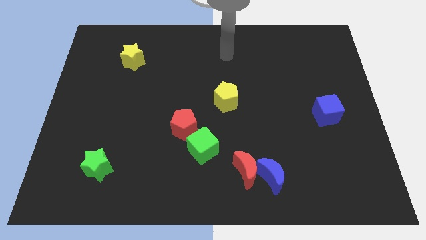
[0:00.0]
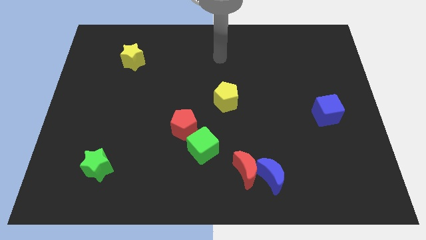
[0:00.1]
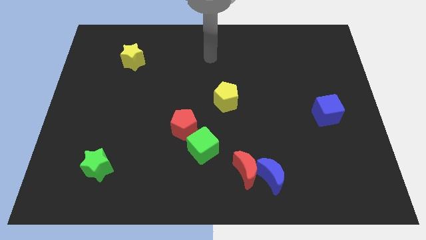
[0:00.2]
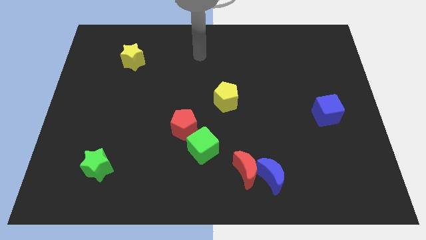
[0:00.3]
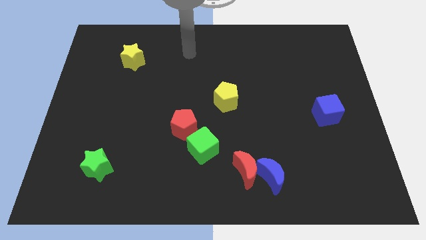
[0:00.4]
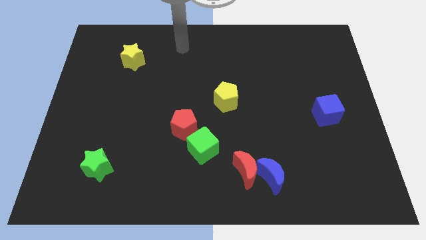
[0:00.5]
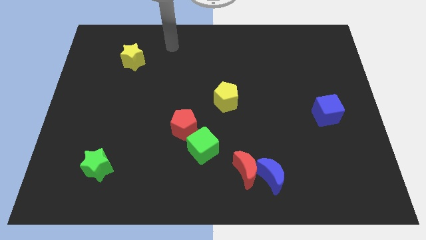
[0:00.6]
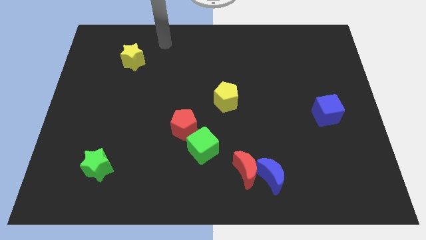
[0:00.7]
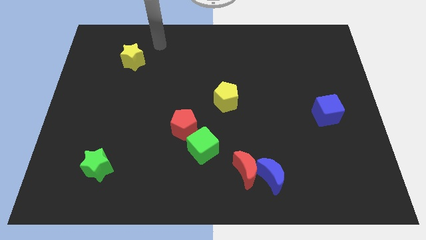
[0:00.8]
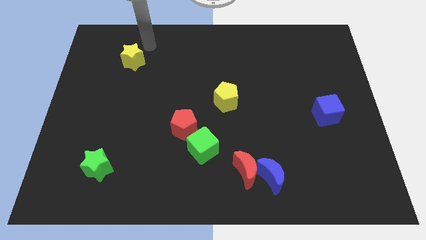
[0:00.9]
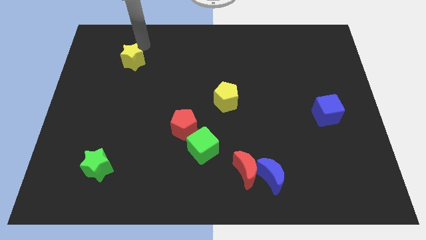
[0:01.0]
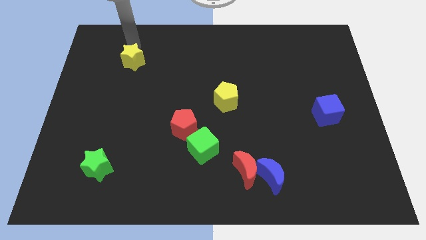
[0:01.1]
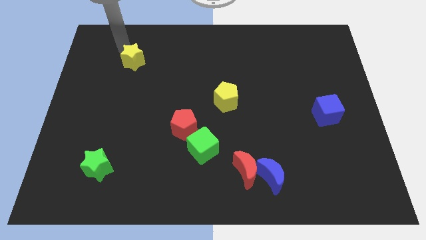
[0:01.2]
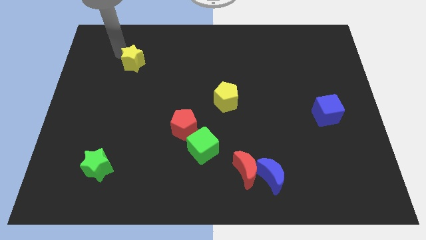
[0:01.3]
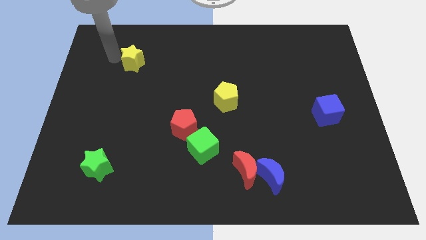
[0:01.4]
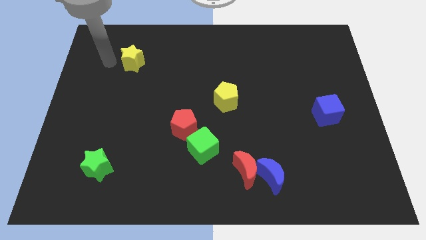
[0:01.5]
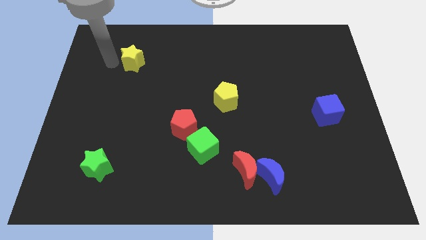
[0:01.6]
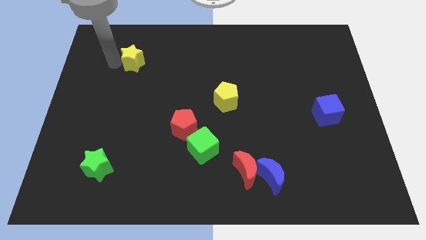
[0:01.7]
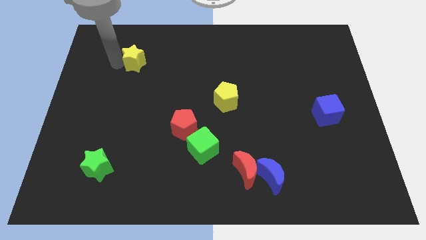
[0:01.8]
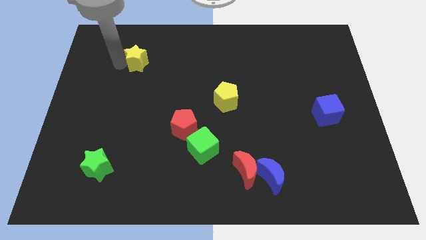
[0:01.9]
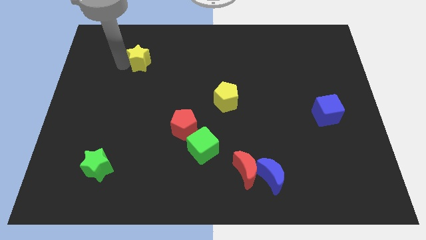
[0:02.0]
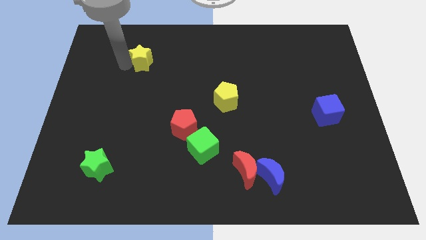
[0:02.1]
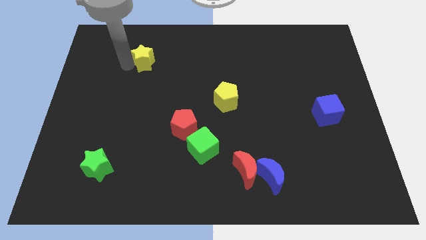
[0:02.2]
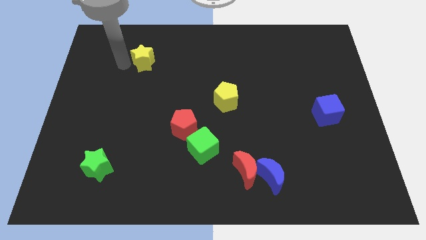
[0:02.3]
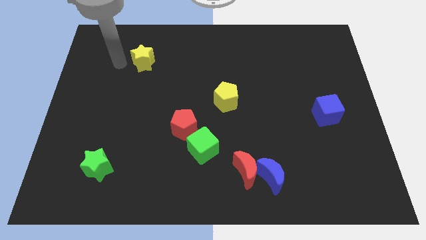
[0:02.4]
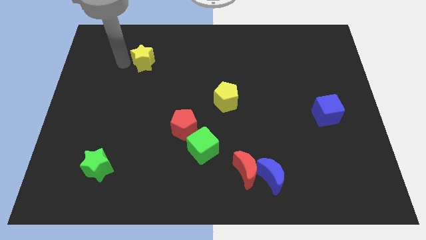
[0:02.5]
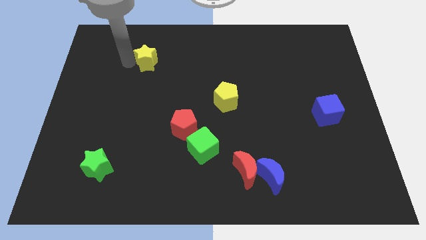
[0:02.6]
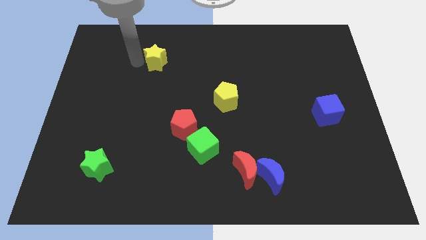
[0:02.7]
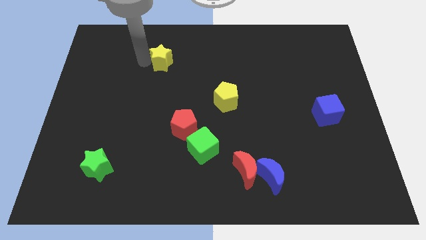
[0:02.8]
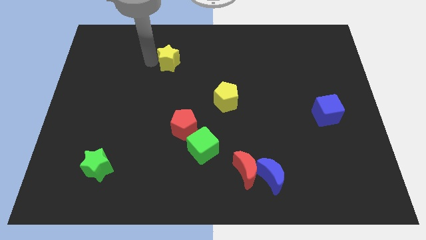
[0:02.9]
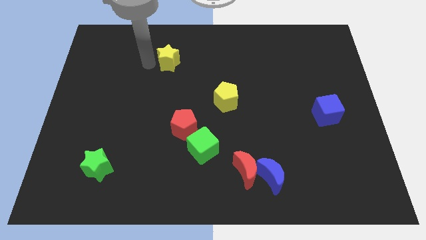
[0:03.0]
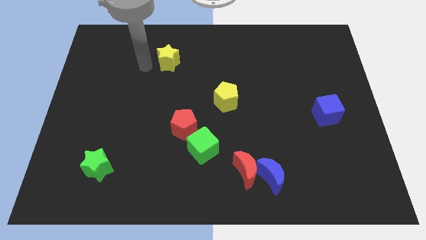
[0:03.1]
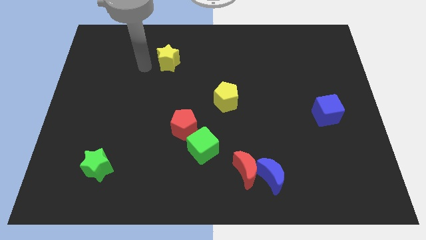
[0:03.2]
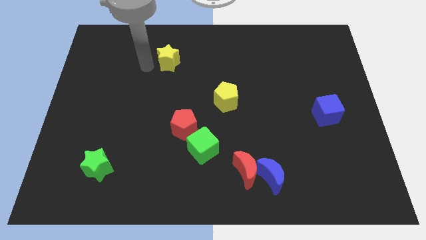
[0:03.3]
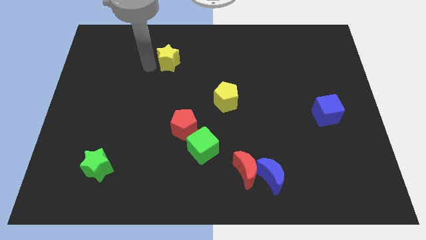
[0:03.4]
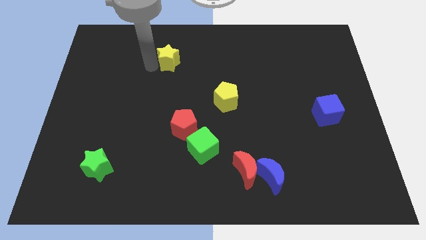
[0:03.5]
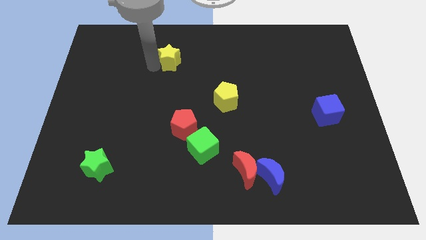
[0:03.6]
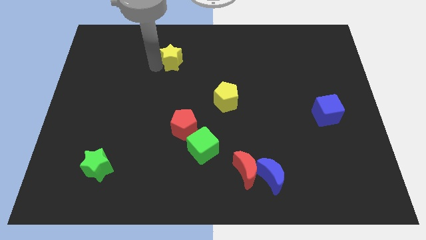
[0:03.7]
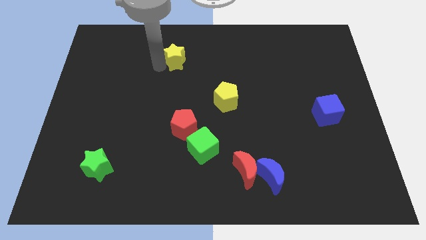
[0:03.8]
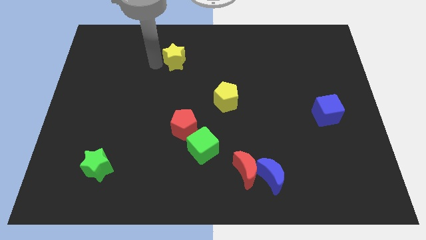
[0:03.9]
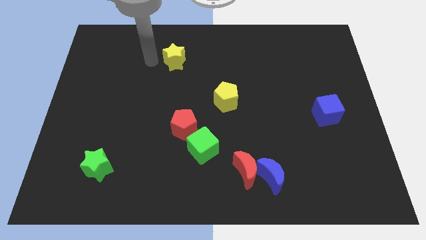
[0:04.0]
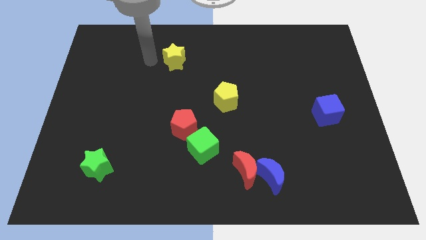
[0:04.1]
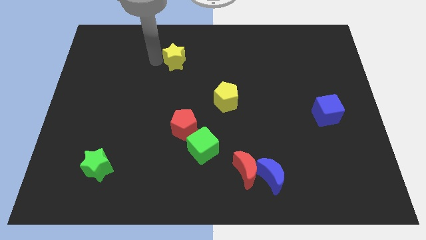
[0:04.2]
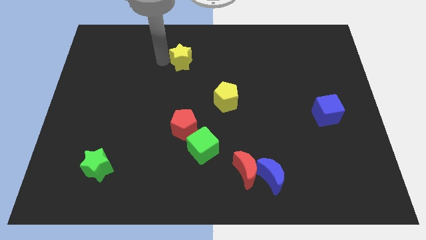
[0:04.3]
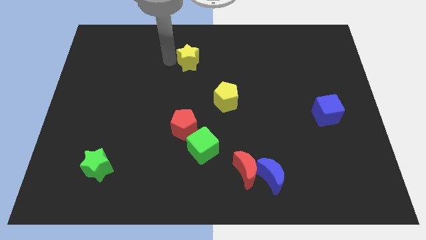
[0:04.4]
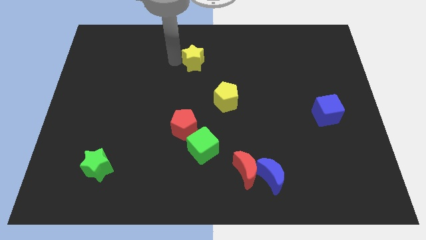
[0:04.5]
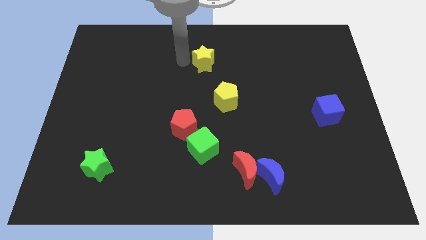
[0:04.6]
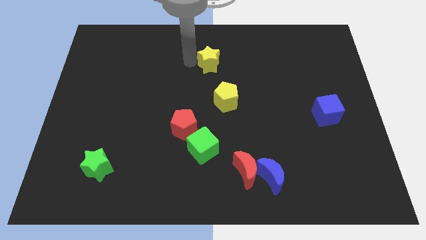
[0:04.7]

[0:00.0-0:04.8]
slide the yellow star right

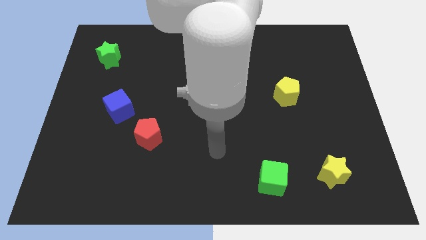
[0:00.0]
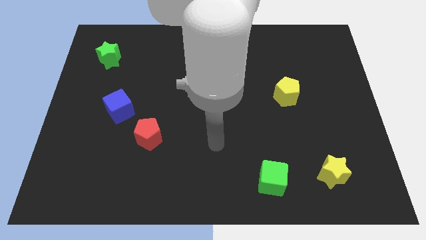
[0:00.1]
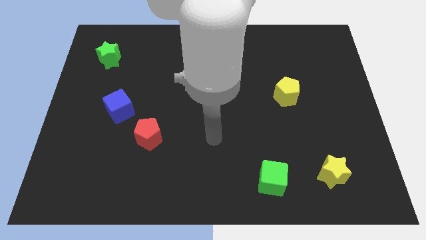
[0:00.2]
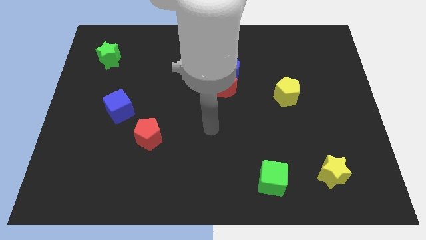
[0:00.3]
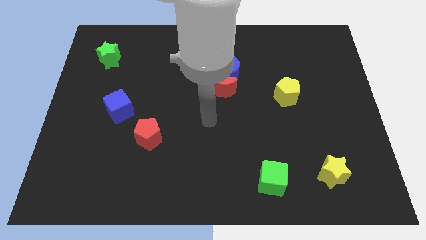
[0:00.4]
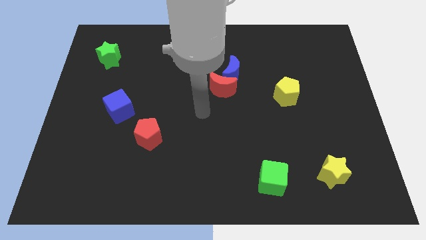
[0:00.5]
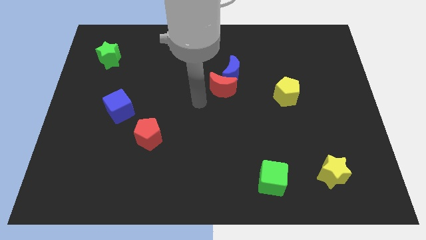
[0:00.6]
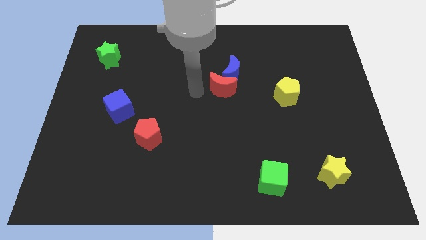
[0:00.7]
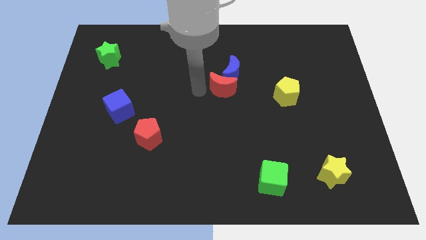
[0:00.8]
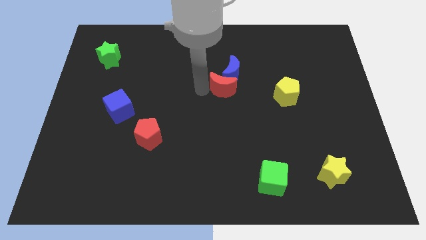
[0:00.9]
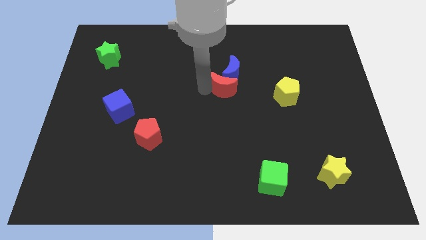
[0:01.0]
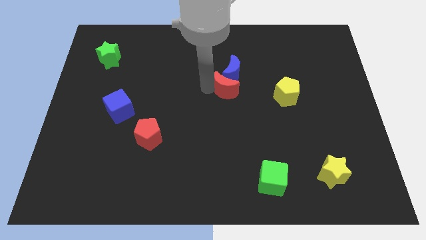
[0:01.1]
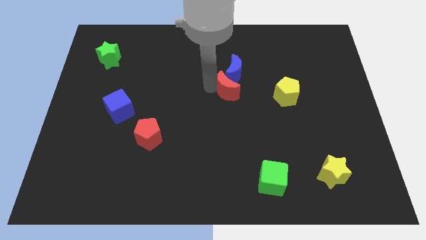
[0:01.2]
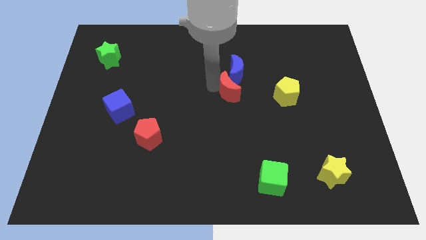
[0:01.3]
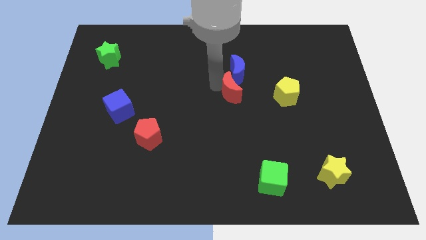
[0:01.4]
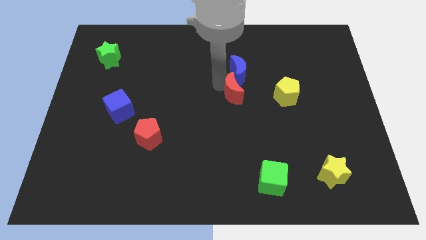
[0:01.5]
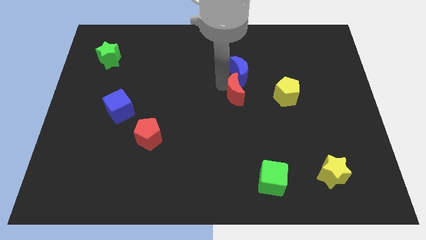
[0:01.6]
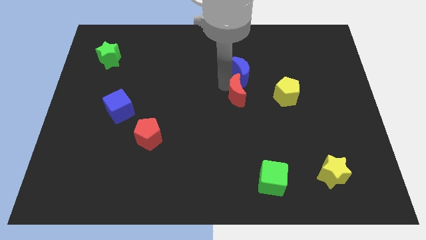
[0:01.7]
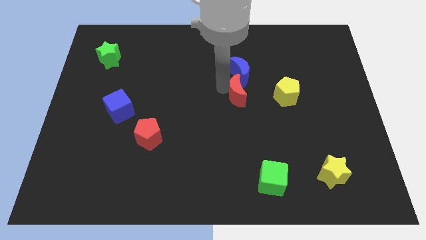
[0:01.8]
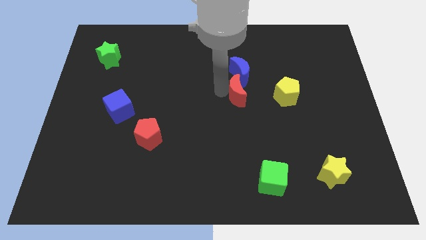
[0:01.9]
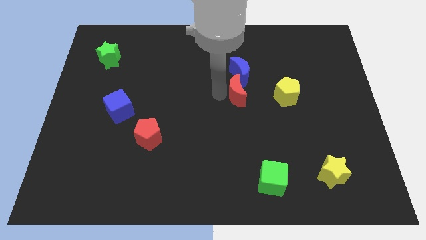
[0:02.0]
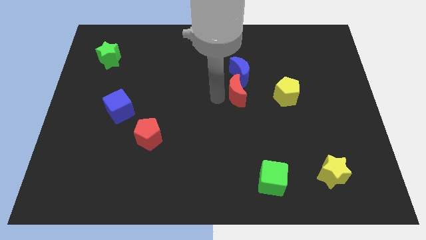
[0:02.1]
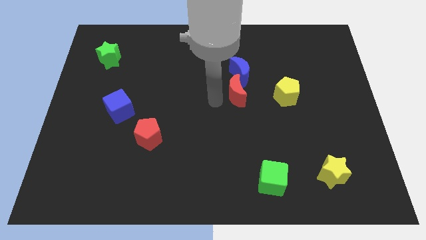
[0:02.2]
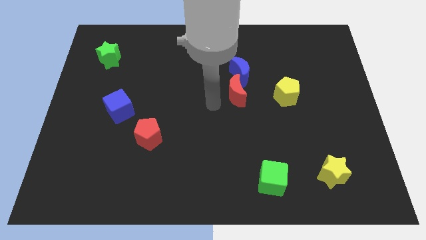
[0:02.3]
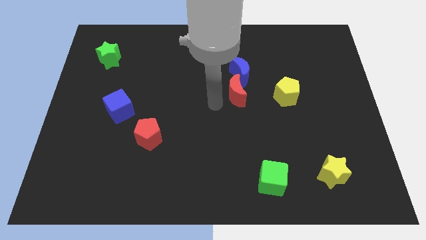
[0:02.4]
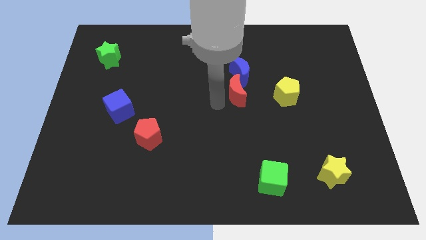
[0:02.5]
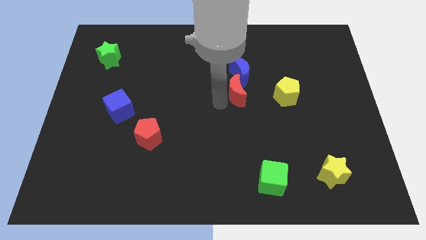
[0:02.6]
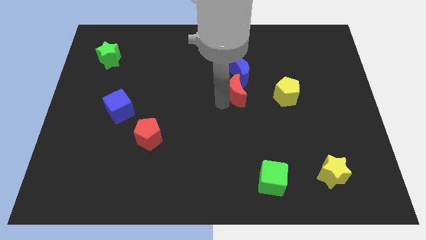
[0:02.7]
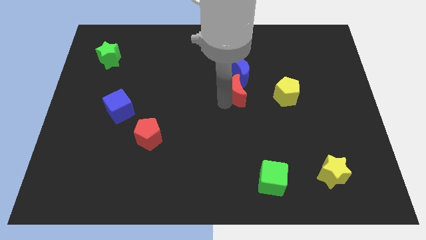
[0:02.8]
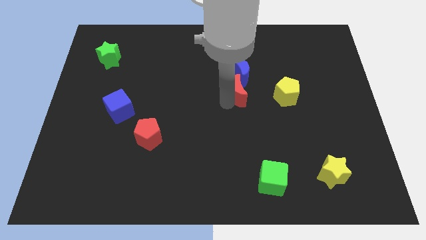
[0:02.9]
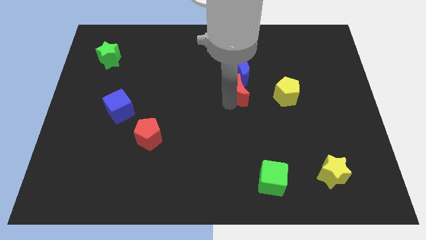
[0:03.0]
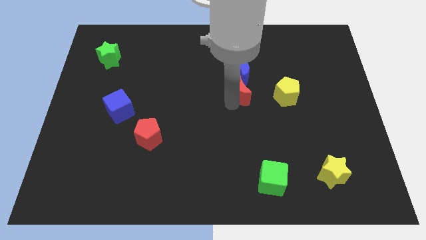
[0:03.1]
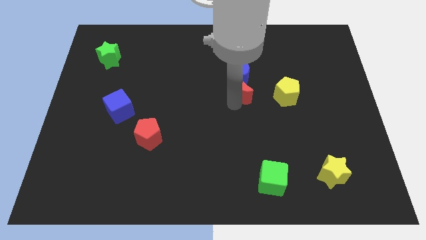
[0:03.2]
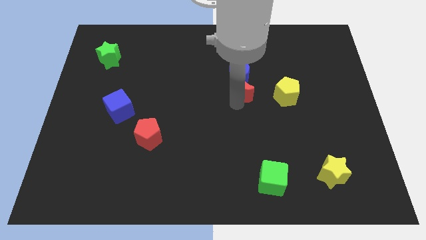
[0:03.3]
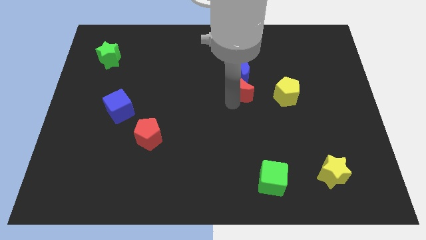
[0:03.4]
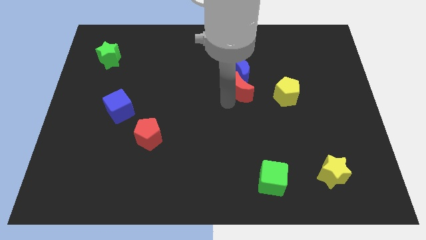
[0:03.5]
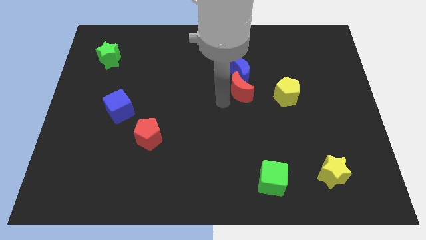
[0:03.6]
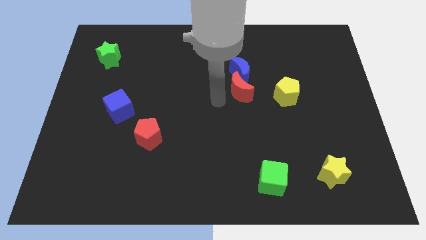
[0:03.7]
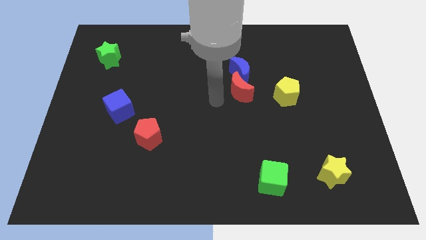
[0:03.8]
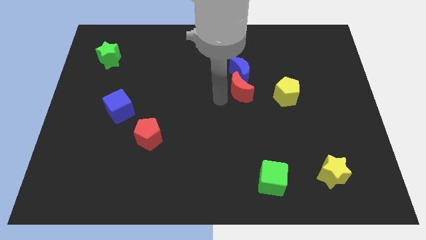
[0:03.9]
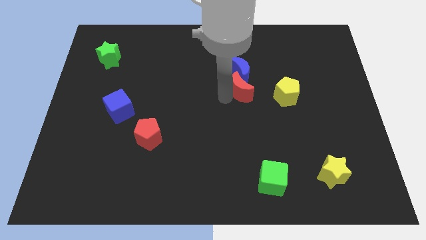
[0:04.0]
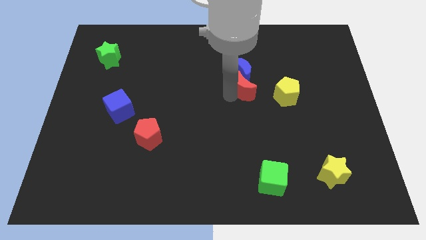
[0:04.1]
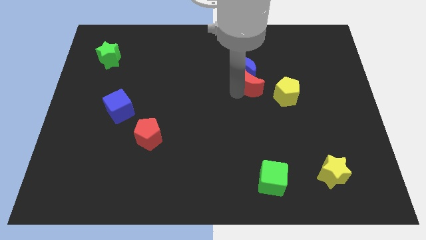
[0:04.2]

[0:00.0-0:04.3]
slide the red moon to the right a bit
